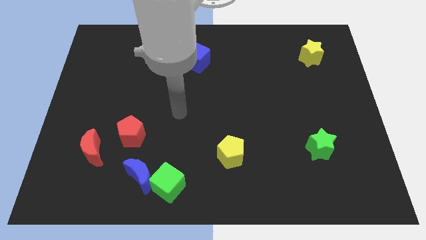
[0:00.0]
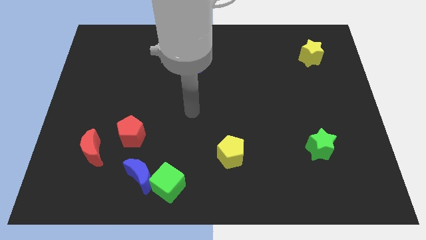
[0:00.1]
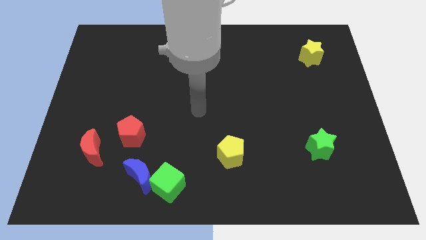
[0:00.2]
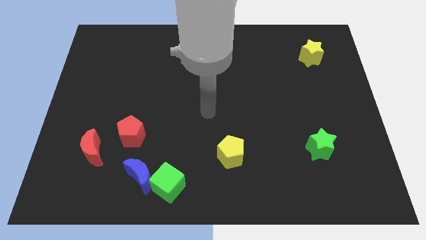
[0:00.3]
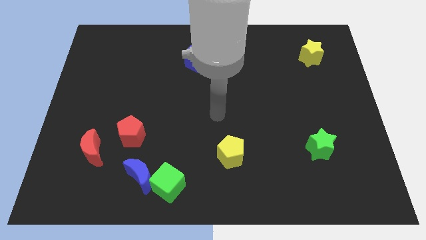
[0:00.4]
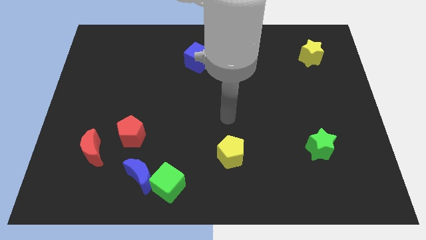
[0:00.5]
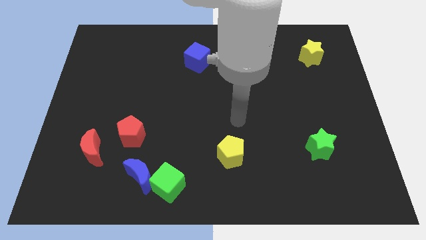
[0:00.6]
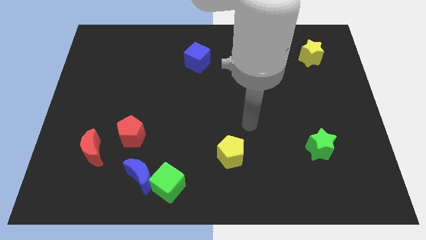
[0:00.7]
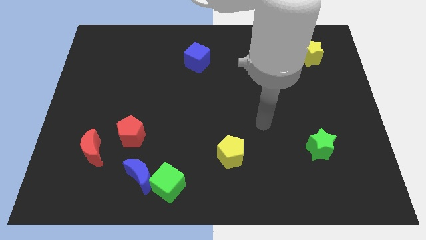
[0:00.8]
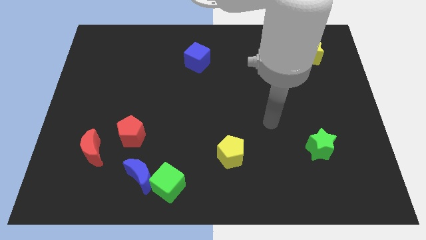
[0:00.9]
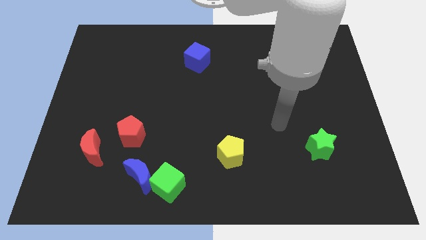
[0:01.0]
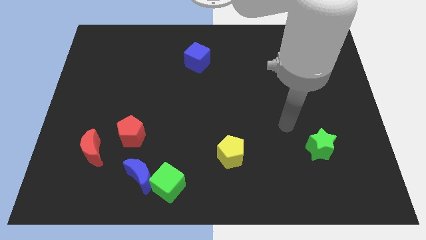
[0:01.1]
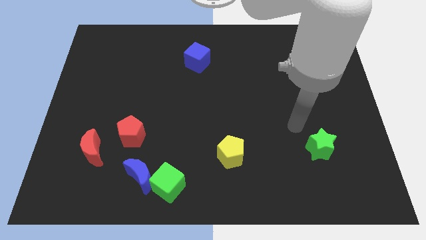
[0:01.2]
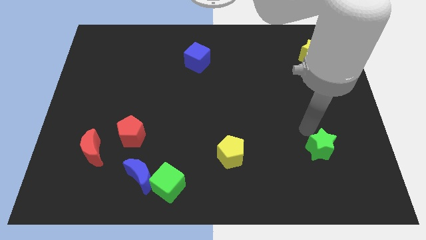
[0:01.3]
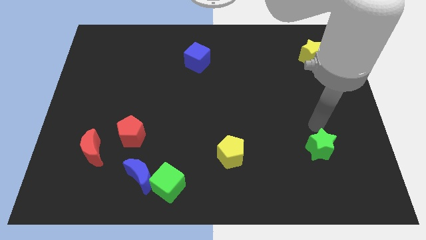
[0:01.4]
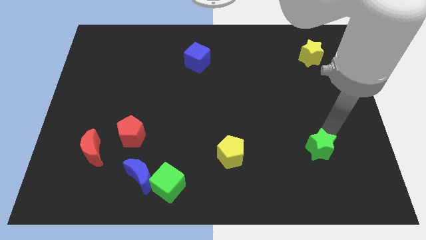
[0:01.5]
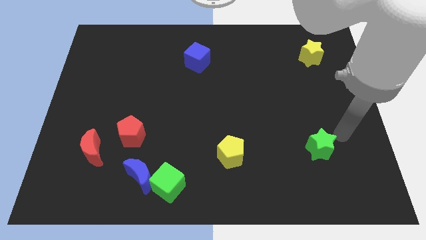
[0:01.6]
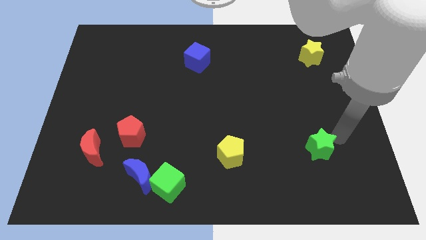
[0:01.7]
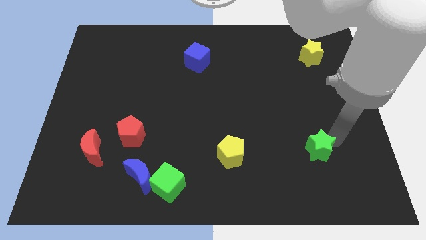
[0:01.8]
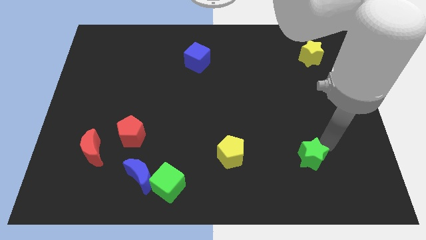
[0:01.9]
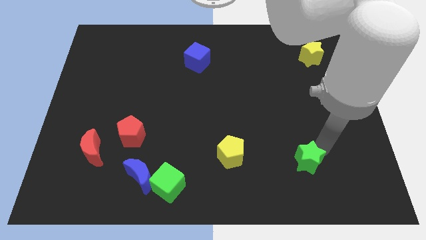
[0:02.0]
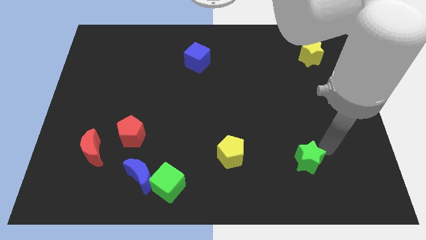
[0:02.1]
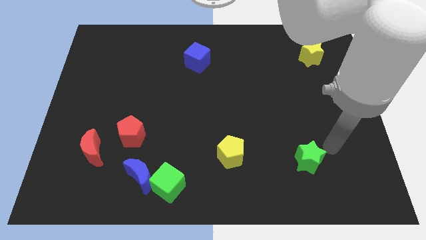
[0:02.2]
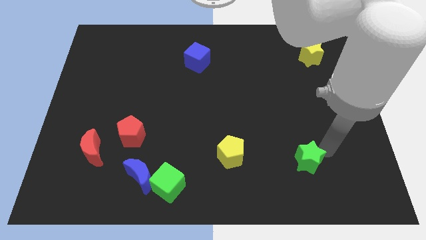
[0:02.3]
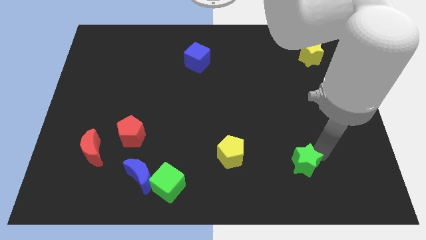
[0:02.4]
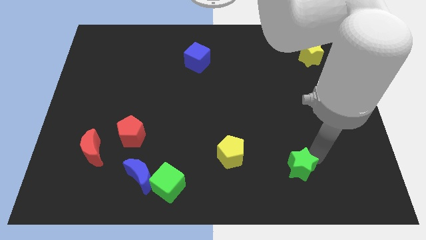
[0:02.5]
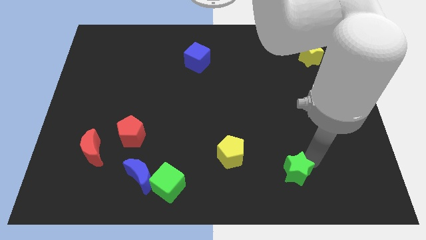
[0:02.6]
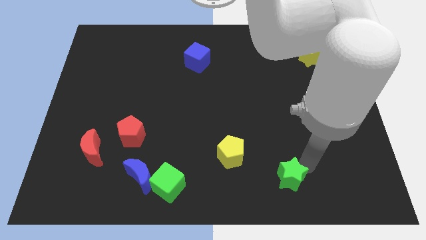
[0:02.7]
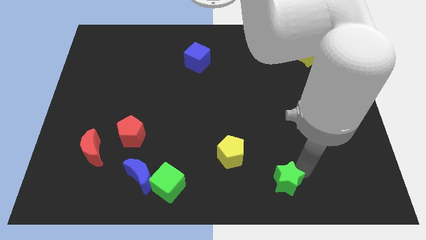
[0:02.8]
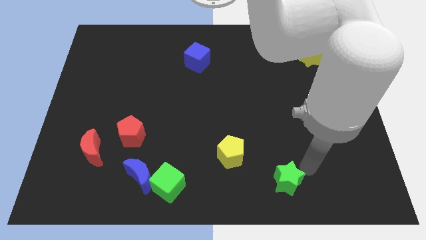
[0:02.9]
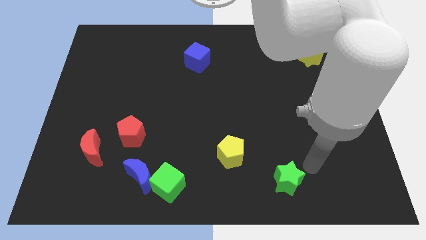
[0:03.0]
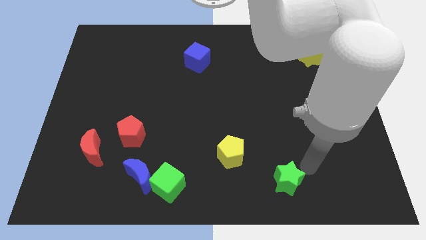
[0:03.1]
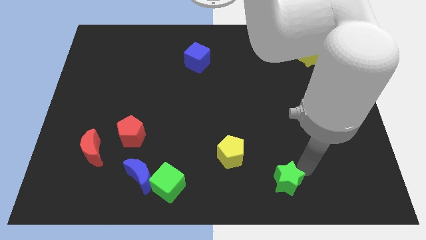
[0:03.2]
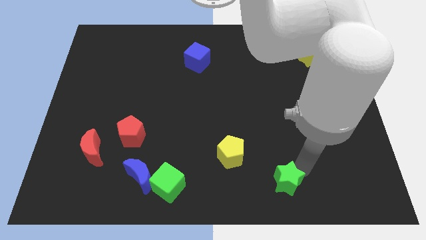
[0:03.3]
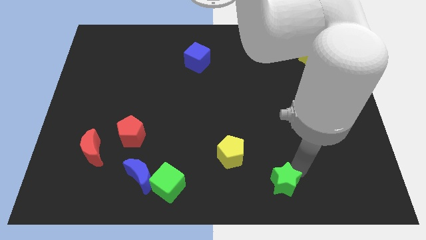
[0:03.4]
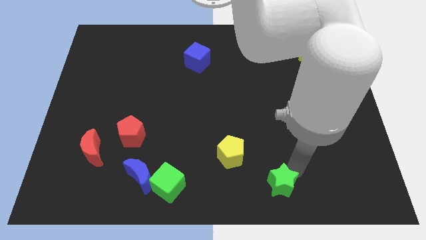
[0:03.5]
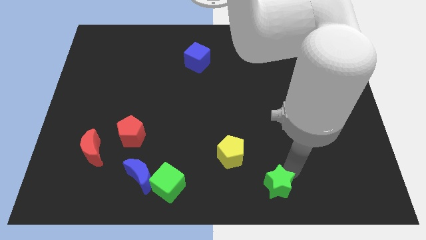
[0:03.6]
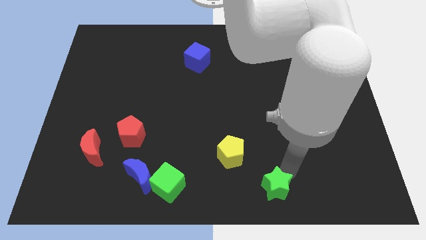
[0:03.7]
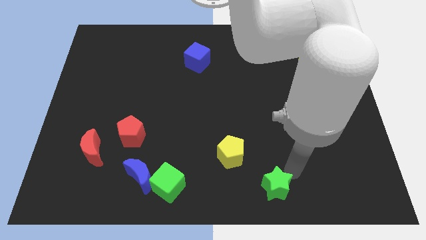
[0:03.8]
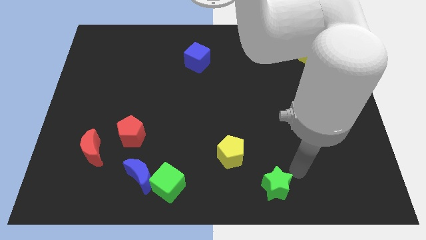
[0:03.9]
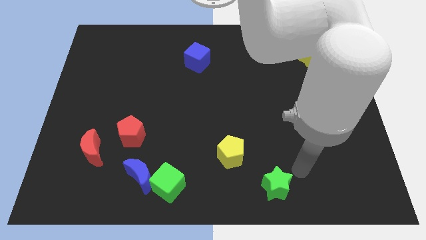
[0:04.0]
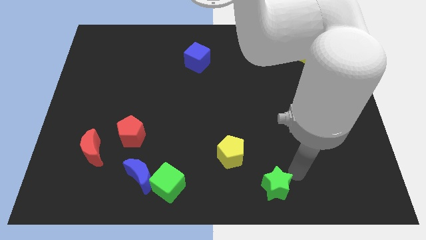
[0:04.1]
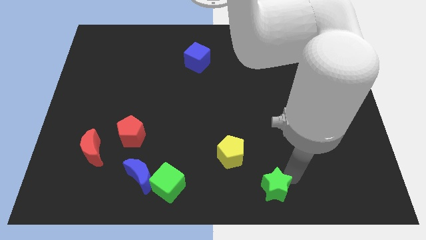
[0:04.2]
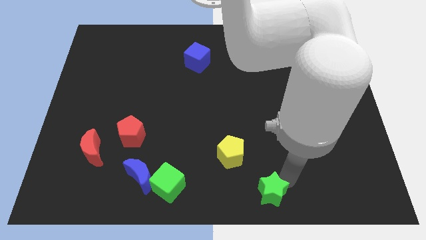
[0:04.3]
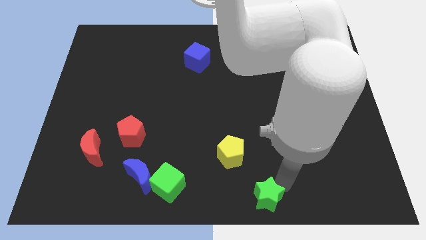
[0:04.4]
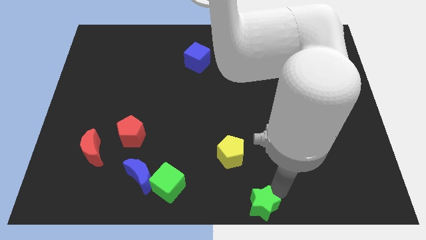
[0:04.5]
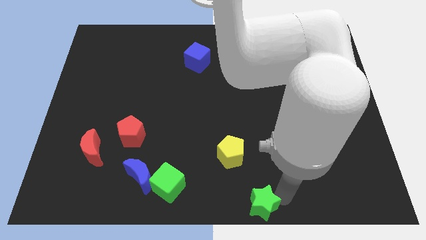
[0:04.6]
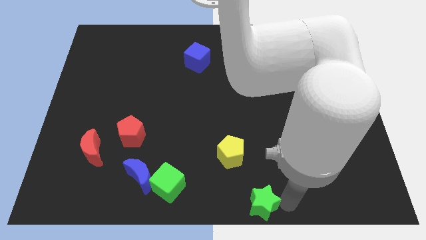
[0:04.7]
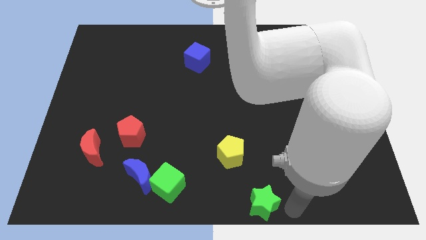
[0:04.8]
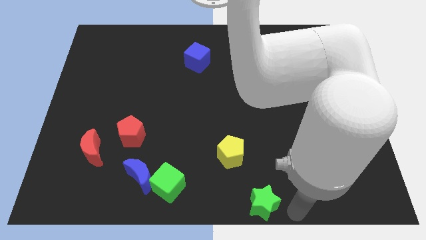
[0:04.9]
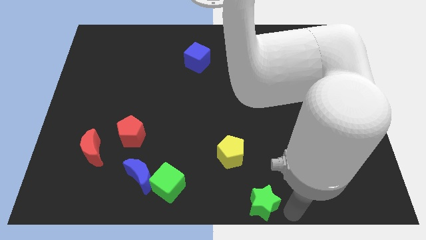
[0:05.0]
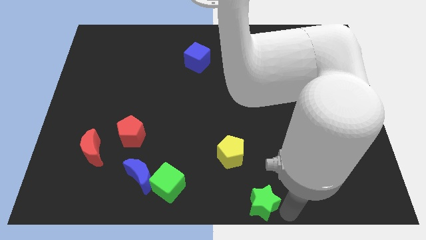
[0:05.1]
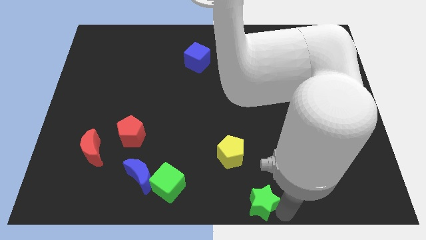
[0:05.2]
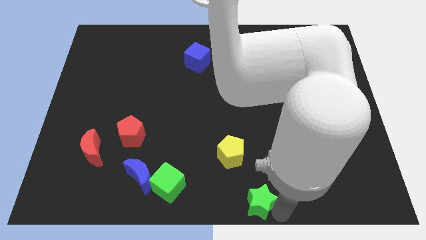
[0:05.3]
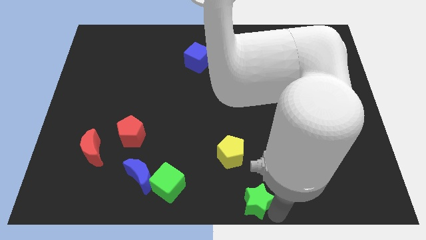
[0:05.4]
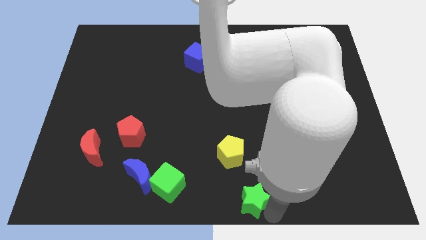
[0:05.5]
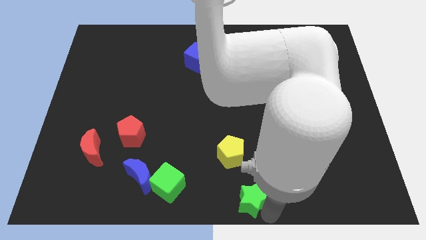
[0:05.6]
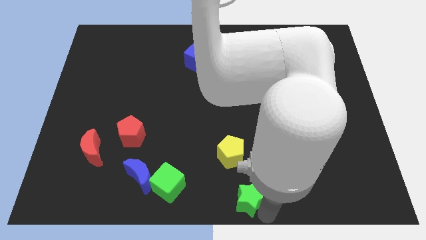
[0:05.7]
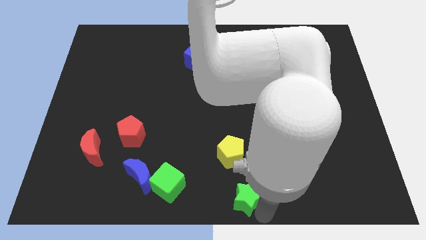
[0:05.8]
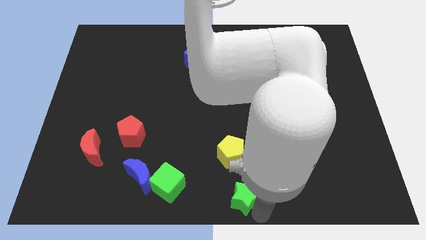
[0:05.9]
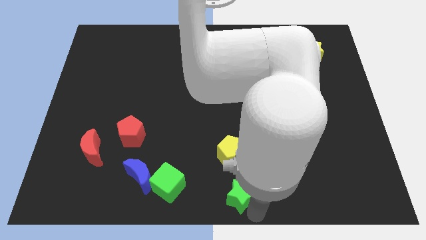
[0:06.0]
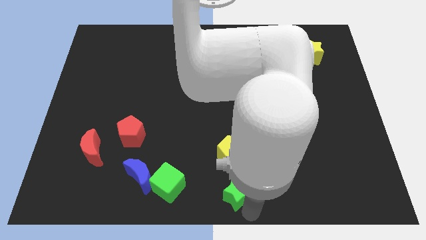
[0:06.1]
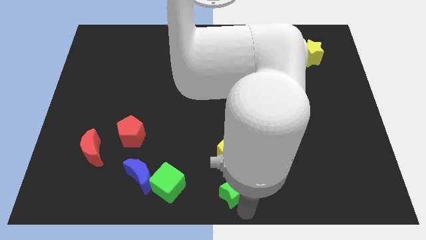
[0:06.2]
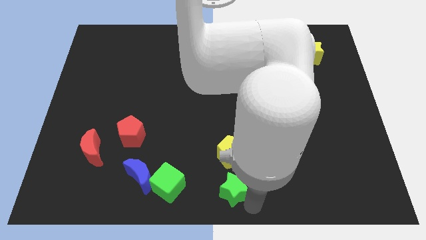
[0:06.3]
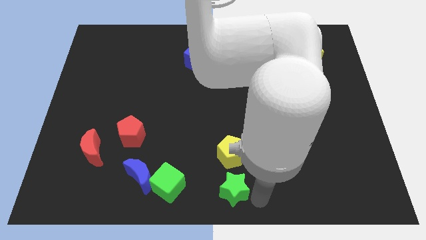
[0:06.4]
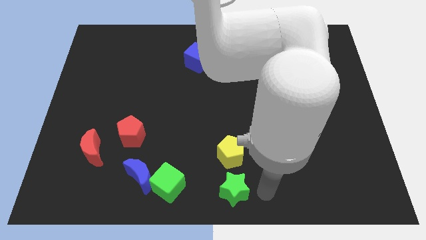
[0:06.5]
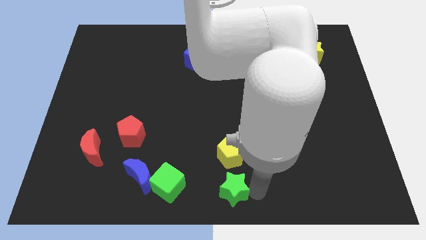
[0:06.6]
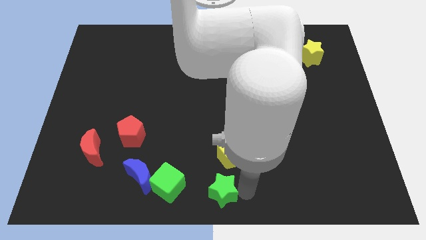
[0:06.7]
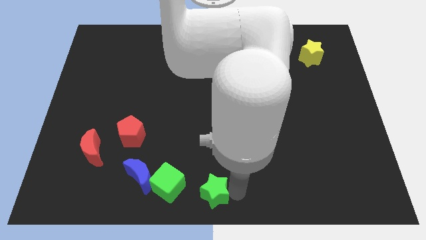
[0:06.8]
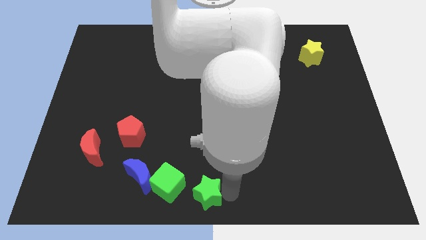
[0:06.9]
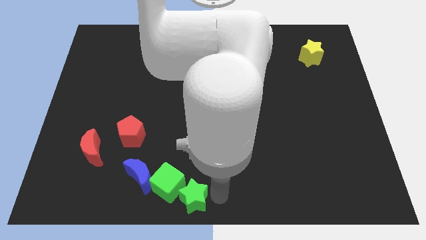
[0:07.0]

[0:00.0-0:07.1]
push the green star close to the green cube

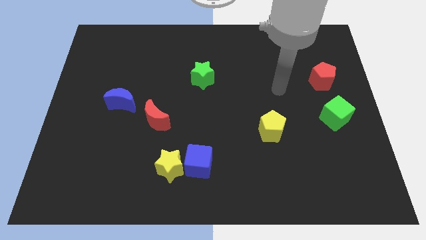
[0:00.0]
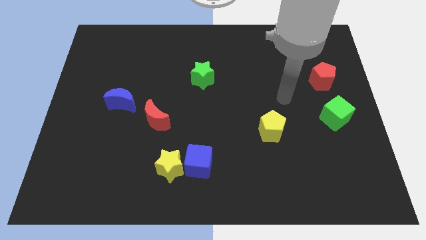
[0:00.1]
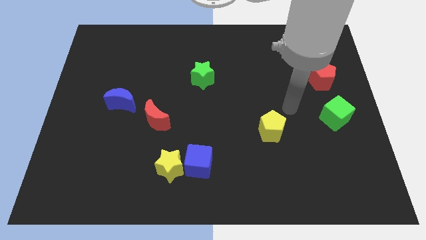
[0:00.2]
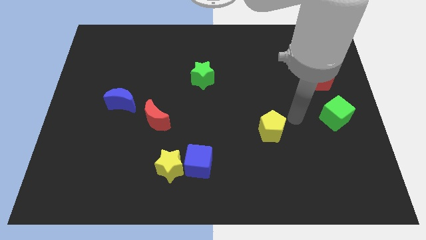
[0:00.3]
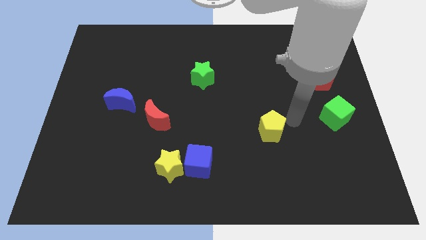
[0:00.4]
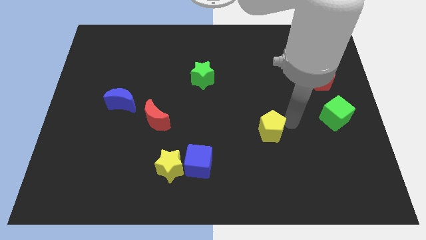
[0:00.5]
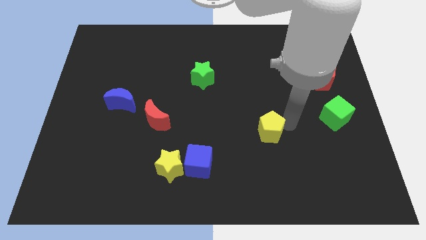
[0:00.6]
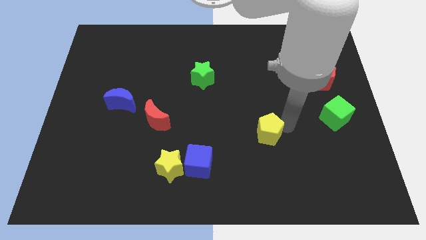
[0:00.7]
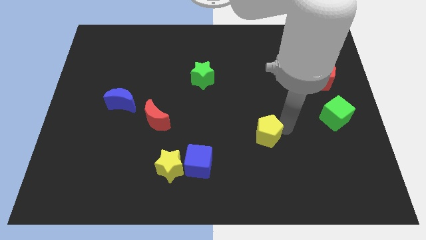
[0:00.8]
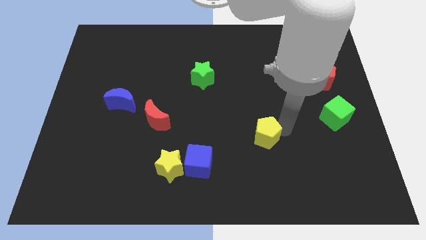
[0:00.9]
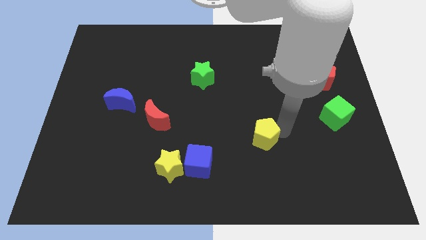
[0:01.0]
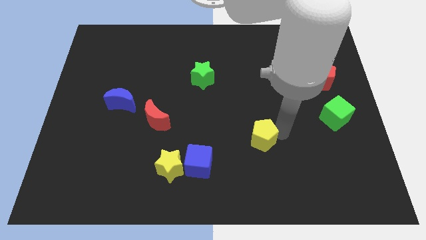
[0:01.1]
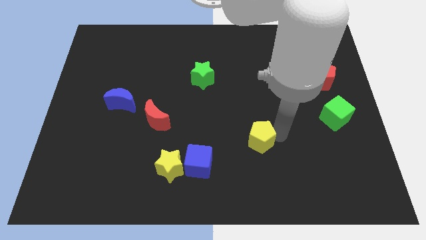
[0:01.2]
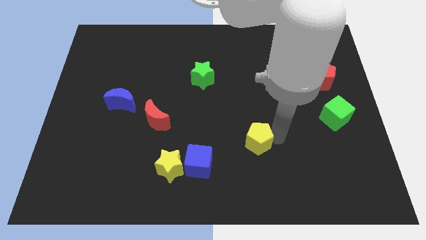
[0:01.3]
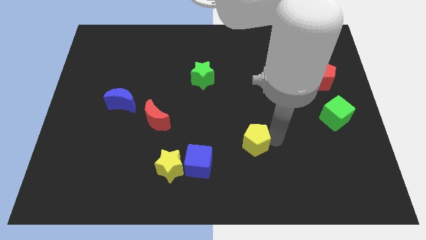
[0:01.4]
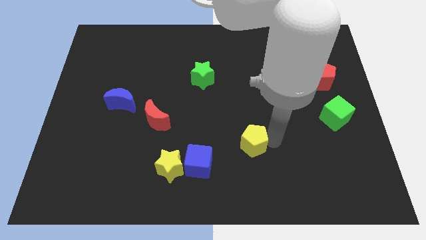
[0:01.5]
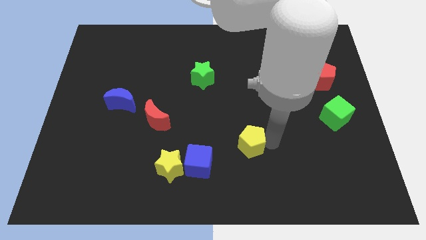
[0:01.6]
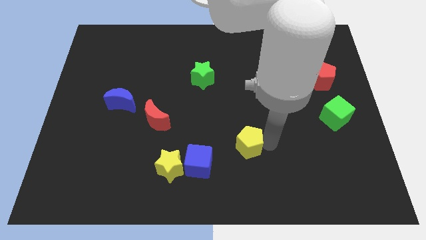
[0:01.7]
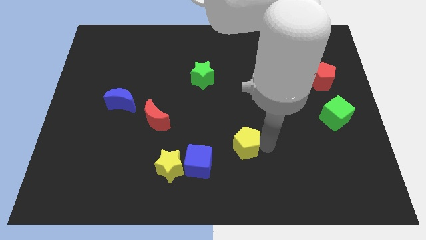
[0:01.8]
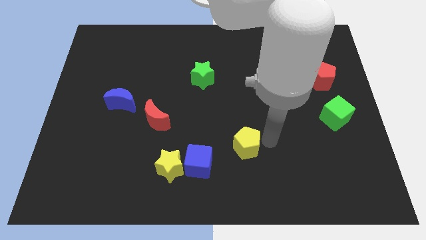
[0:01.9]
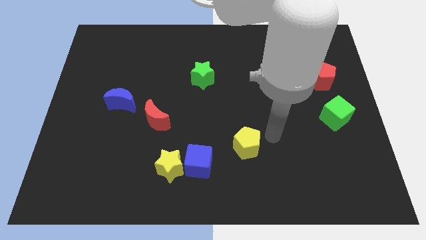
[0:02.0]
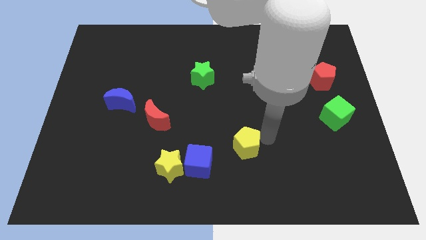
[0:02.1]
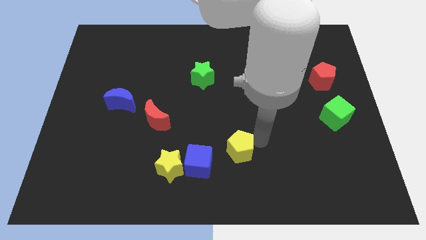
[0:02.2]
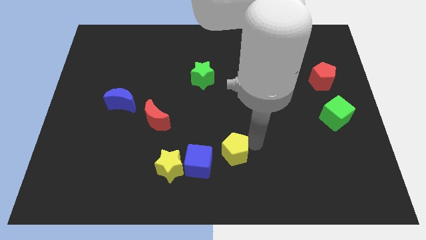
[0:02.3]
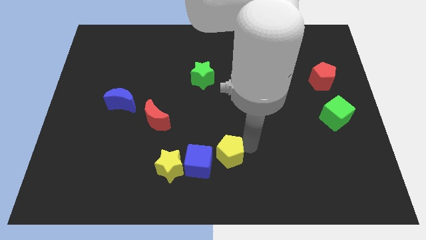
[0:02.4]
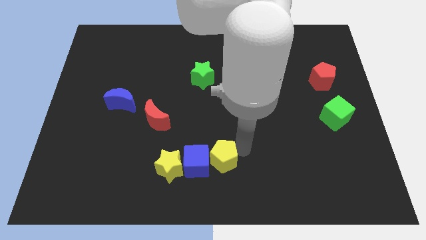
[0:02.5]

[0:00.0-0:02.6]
move the yellow pentagon close to the blue cube
